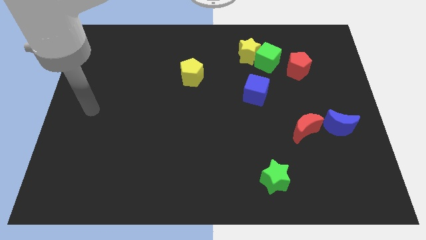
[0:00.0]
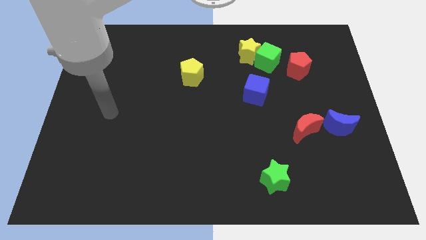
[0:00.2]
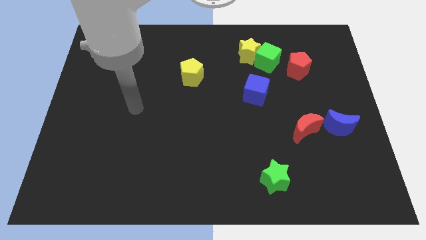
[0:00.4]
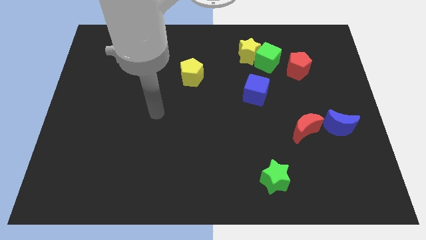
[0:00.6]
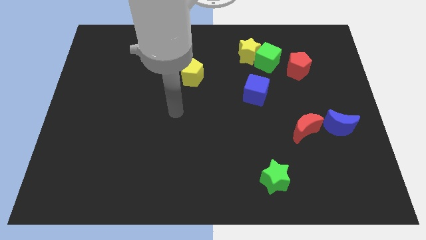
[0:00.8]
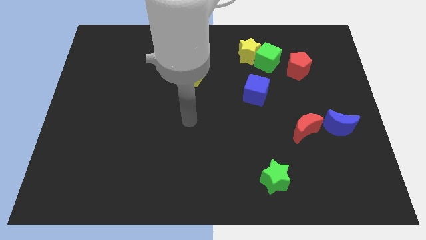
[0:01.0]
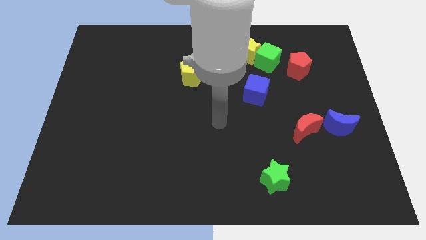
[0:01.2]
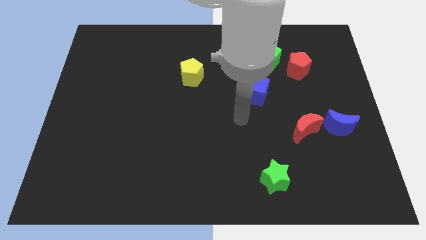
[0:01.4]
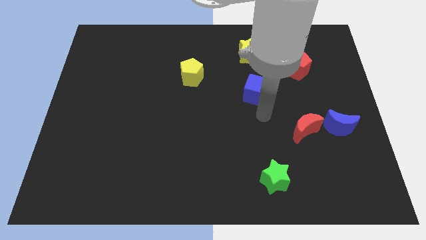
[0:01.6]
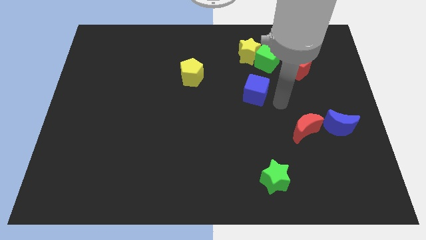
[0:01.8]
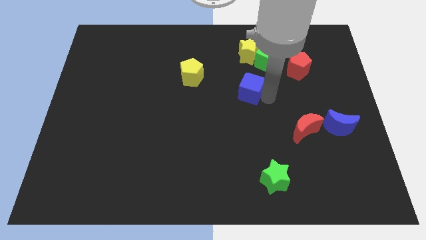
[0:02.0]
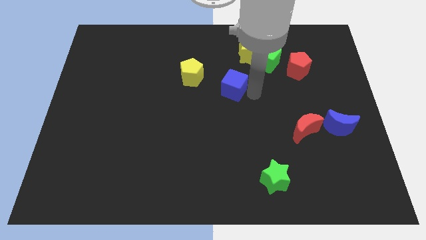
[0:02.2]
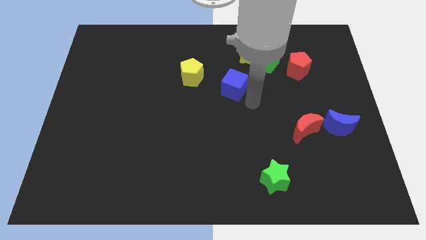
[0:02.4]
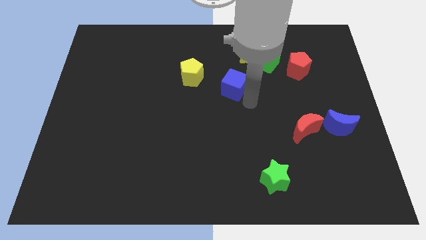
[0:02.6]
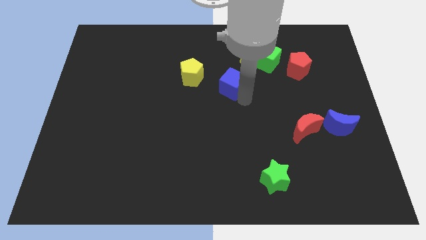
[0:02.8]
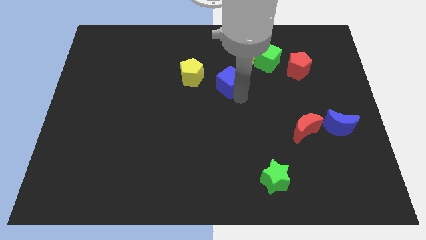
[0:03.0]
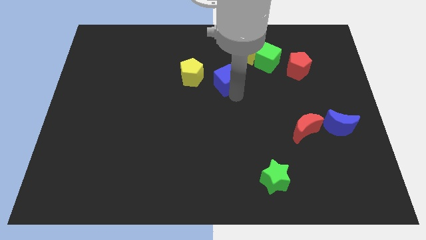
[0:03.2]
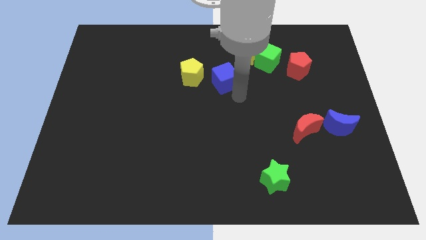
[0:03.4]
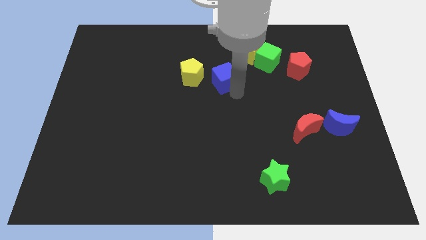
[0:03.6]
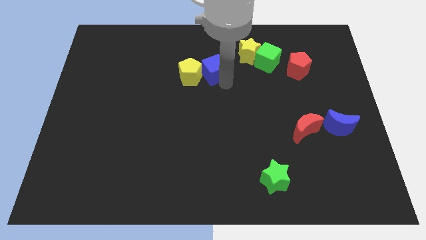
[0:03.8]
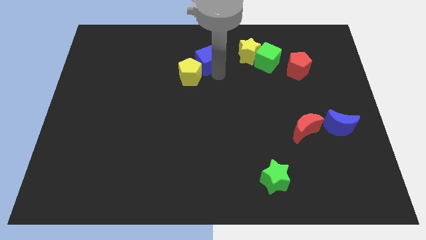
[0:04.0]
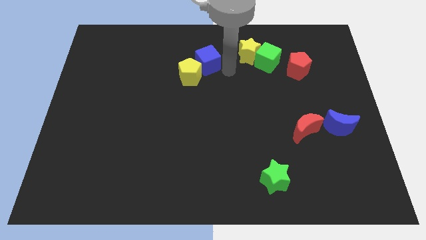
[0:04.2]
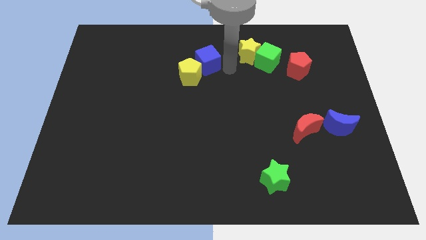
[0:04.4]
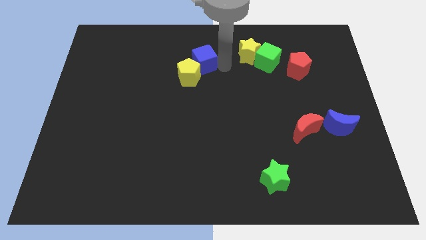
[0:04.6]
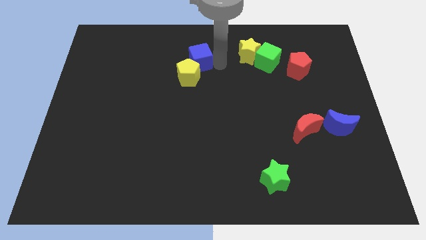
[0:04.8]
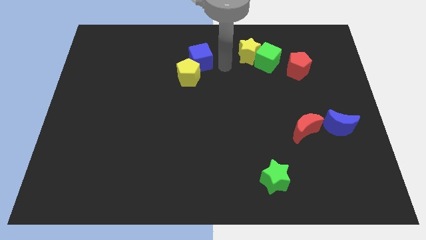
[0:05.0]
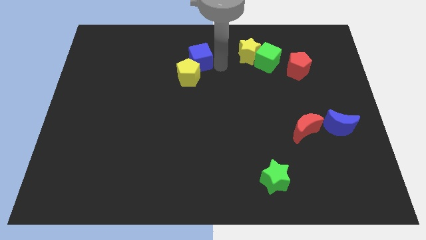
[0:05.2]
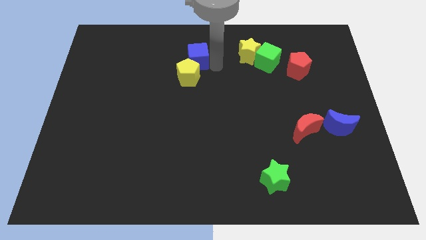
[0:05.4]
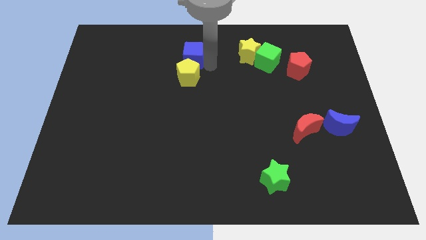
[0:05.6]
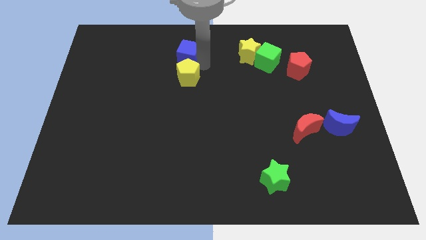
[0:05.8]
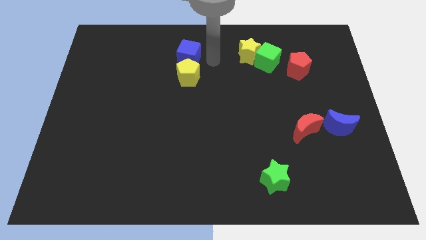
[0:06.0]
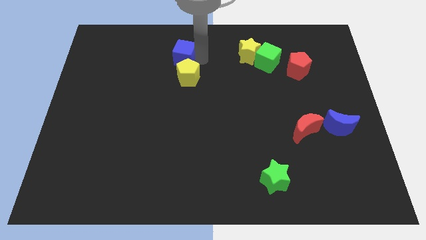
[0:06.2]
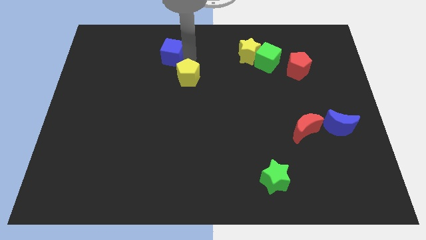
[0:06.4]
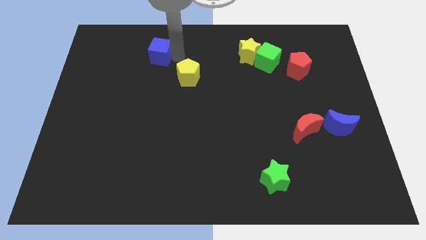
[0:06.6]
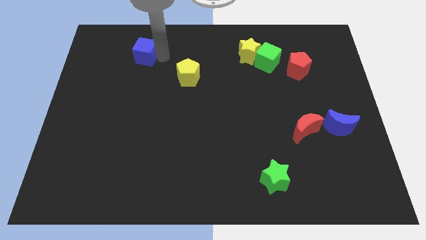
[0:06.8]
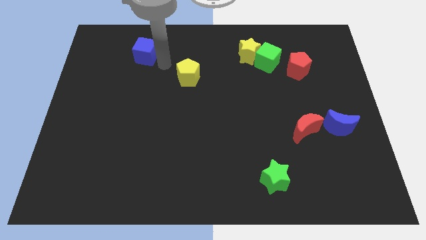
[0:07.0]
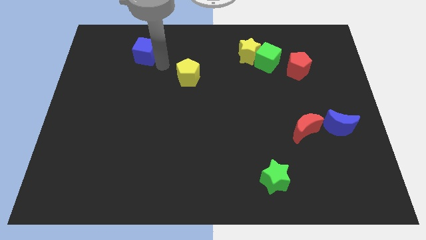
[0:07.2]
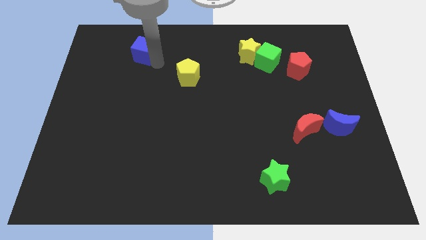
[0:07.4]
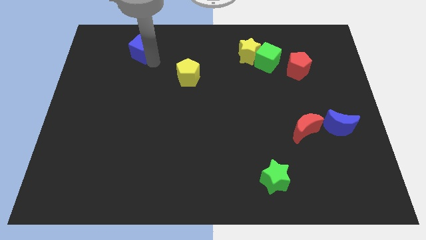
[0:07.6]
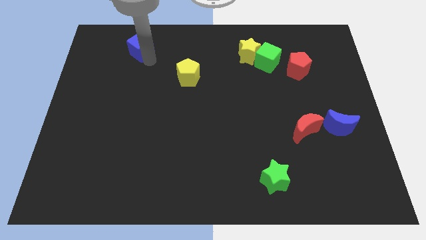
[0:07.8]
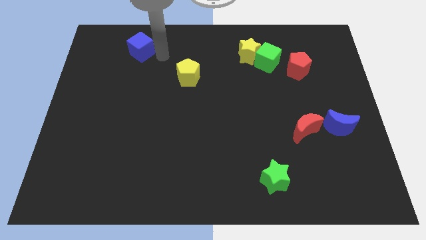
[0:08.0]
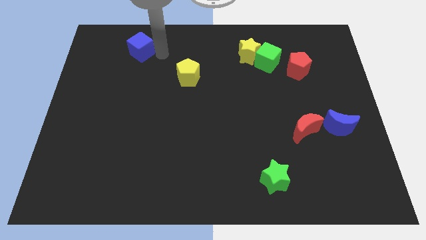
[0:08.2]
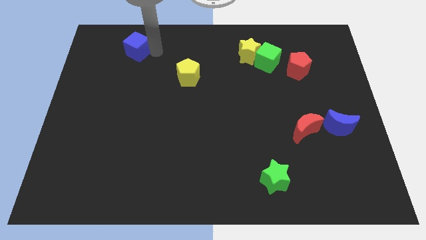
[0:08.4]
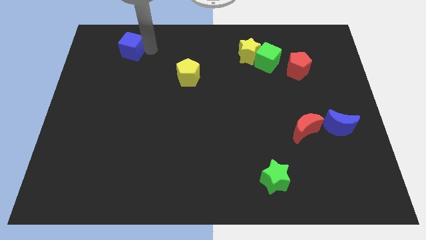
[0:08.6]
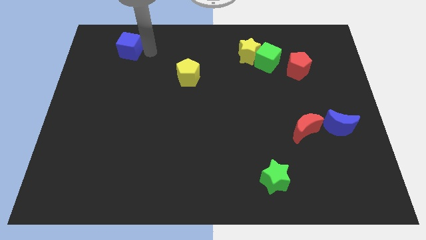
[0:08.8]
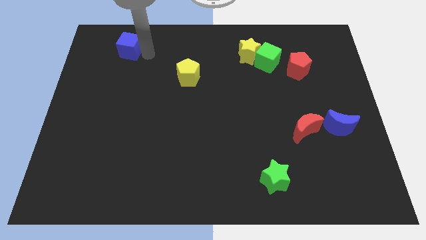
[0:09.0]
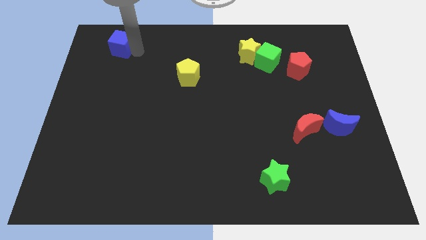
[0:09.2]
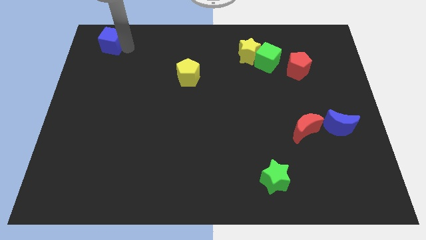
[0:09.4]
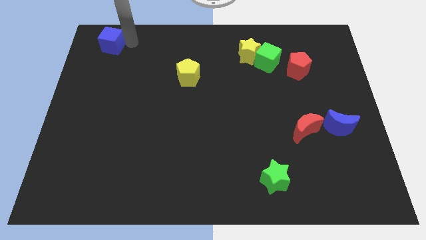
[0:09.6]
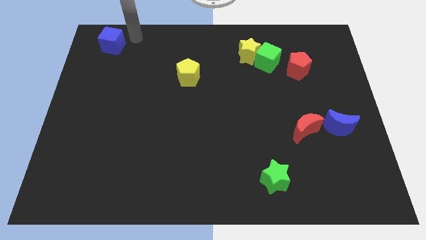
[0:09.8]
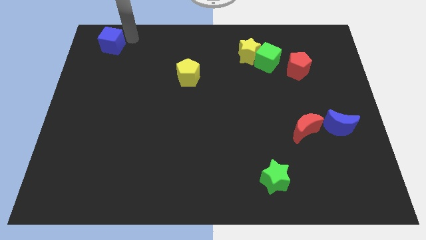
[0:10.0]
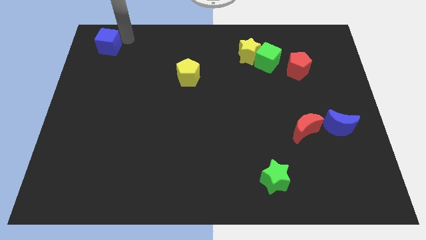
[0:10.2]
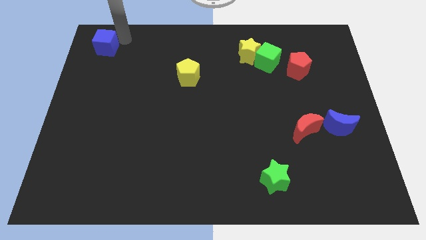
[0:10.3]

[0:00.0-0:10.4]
slide the blue cube to the upper left corner

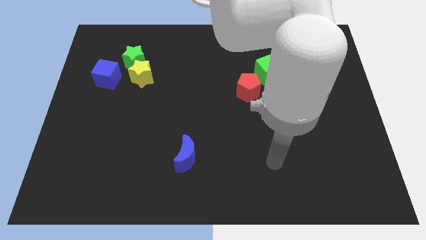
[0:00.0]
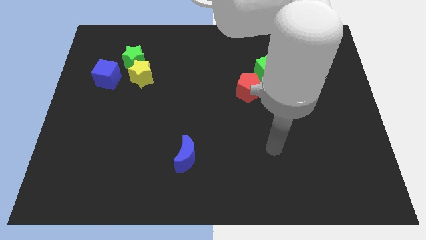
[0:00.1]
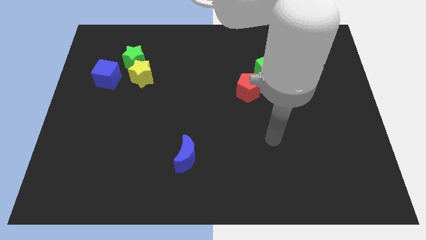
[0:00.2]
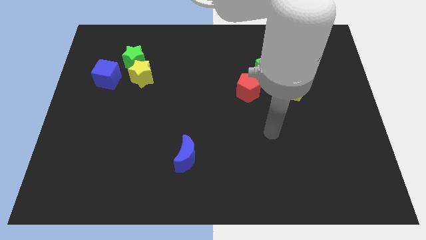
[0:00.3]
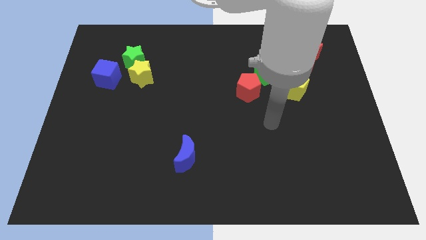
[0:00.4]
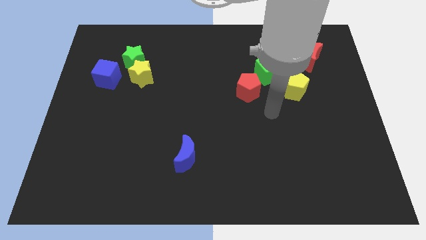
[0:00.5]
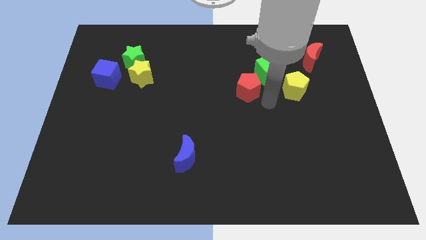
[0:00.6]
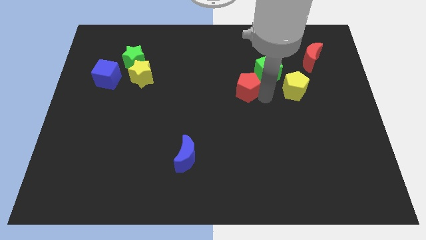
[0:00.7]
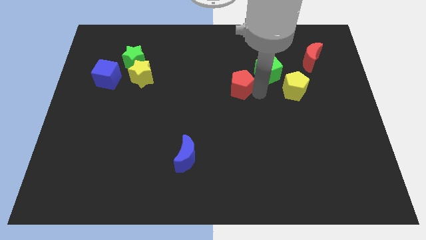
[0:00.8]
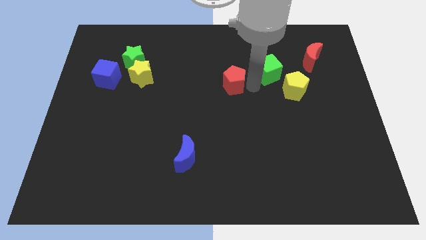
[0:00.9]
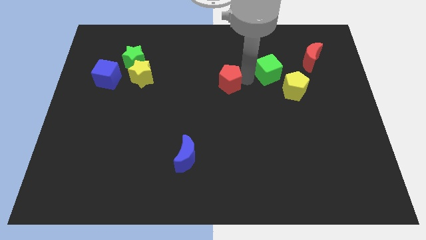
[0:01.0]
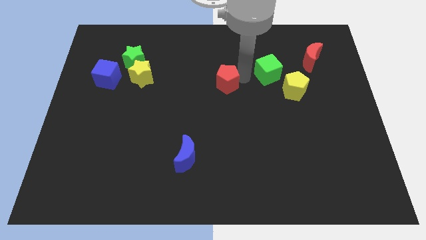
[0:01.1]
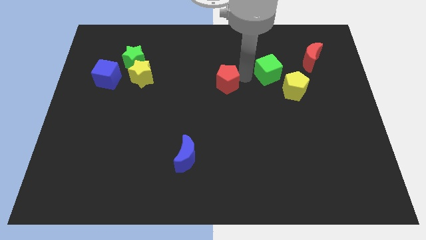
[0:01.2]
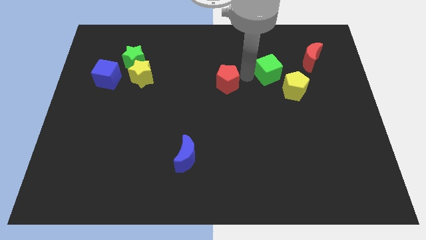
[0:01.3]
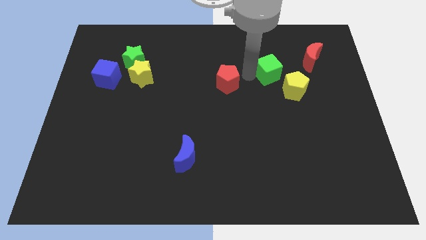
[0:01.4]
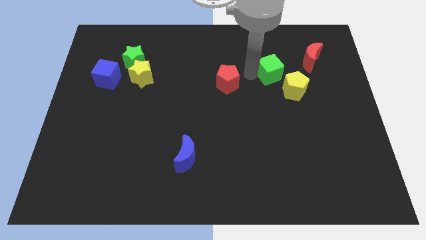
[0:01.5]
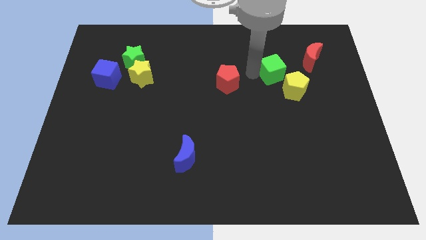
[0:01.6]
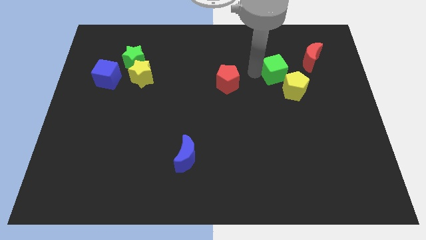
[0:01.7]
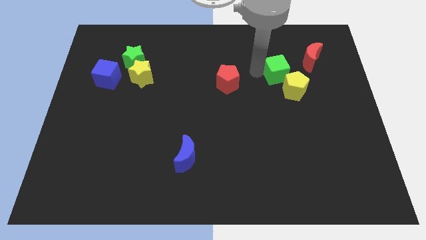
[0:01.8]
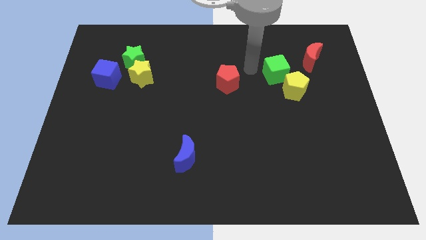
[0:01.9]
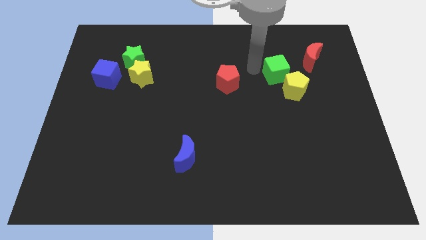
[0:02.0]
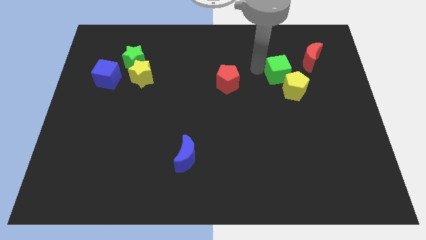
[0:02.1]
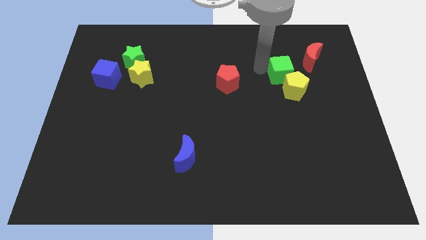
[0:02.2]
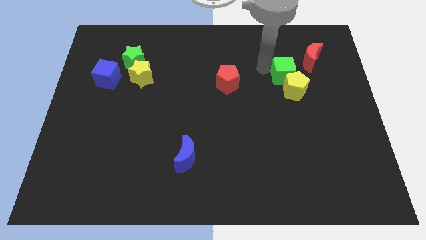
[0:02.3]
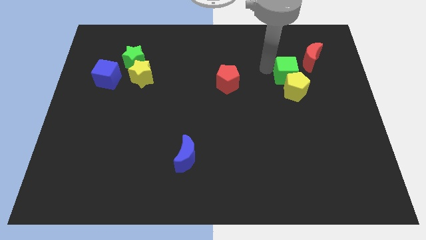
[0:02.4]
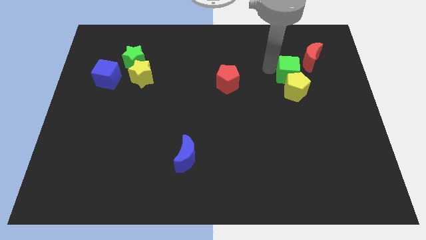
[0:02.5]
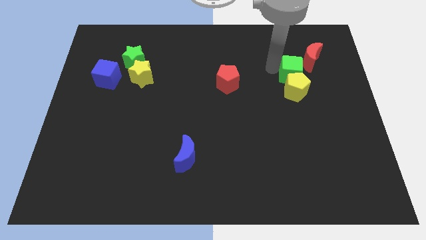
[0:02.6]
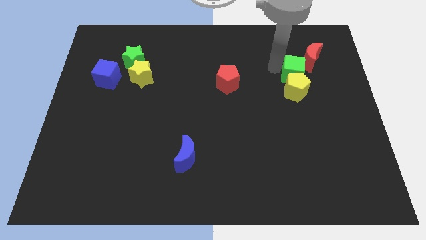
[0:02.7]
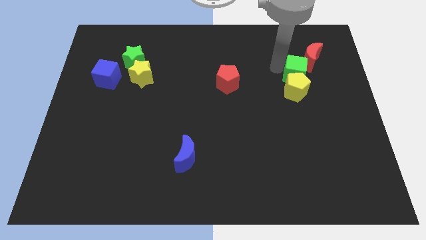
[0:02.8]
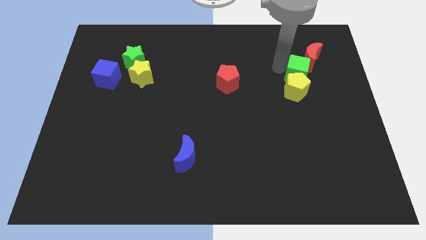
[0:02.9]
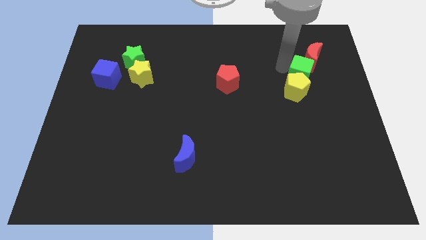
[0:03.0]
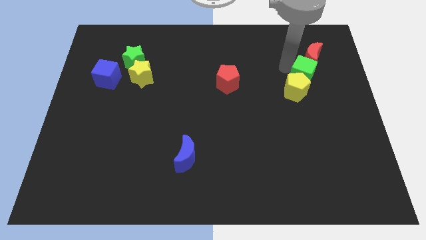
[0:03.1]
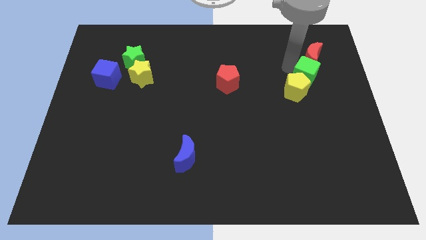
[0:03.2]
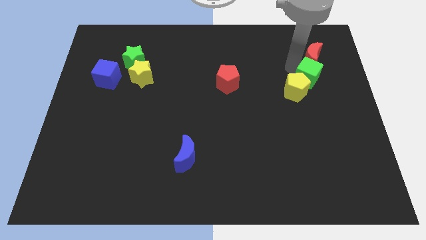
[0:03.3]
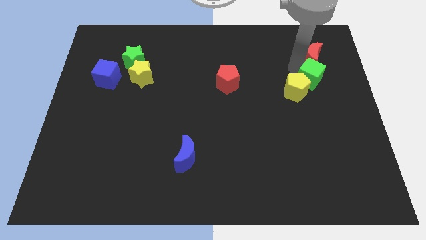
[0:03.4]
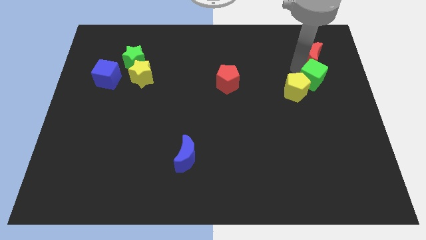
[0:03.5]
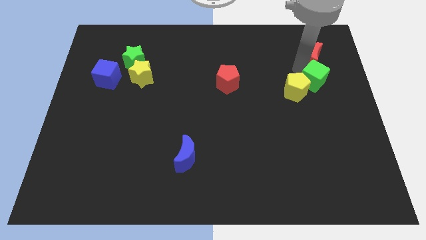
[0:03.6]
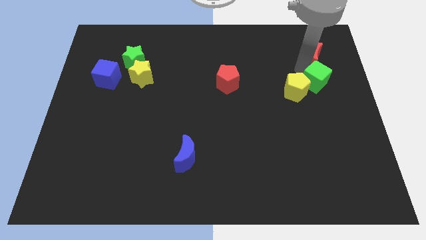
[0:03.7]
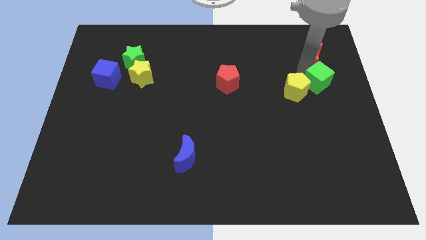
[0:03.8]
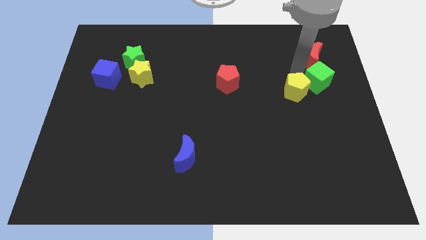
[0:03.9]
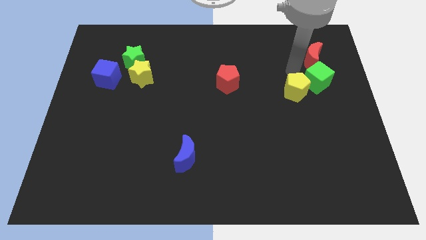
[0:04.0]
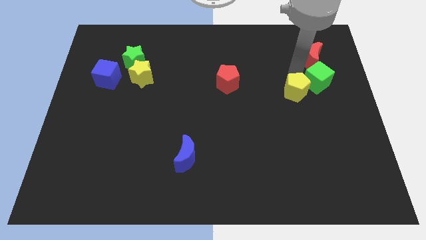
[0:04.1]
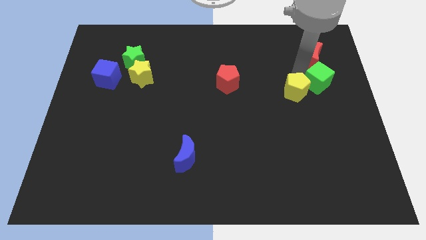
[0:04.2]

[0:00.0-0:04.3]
push the green cube to the right side of the board
